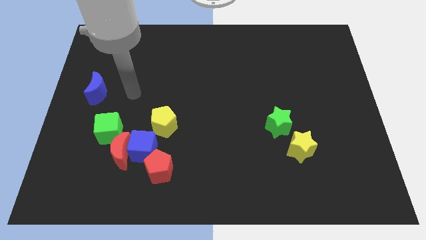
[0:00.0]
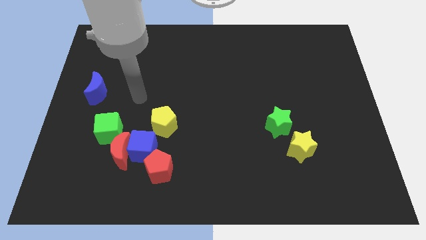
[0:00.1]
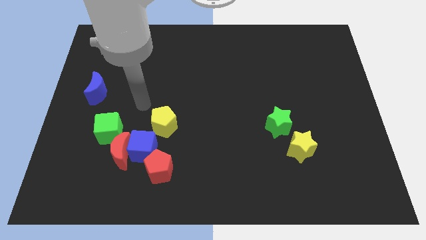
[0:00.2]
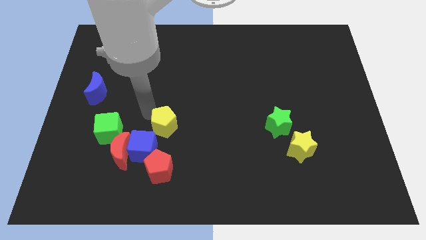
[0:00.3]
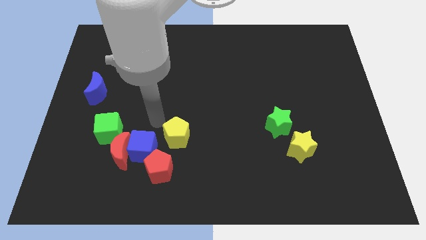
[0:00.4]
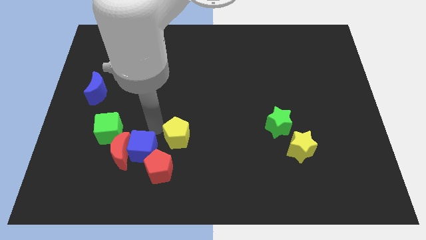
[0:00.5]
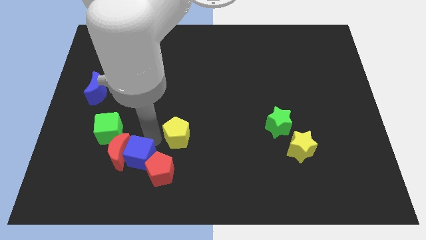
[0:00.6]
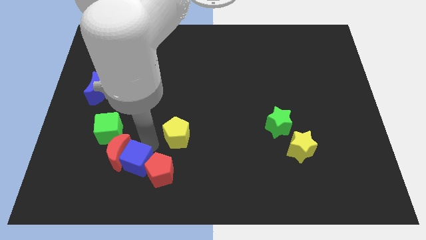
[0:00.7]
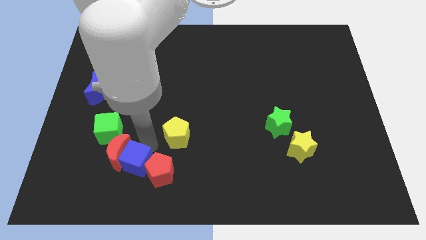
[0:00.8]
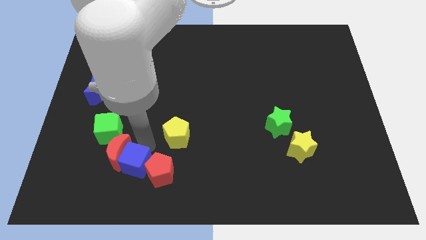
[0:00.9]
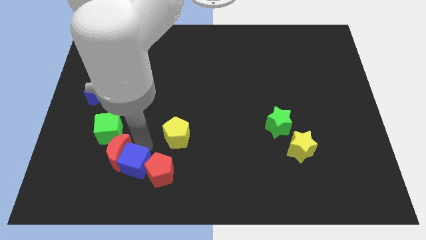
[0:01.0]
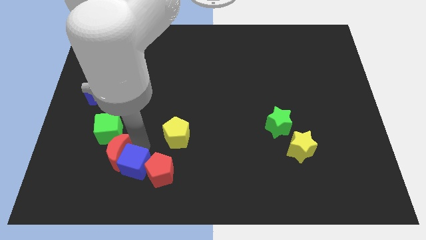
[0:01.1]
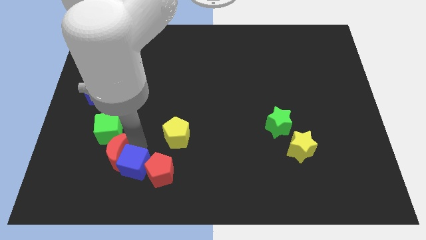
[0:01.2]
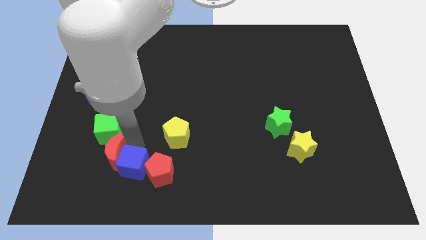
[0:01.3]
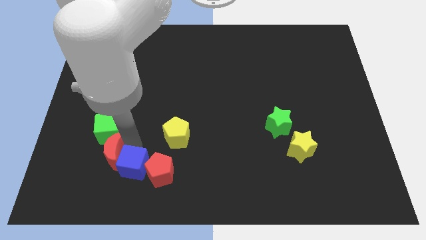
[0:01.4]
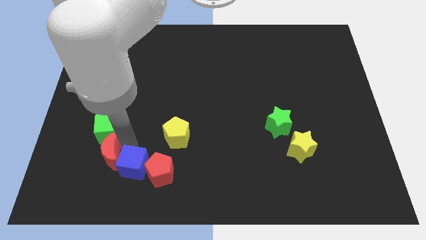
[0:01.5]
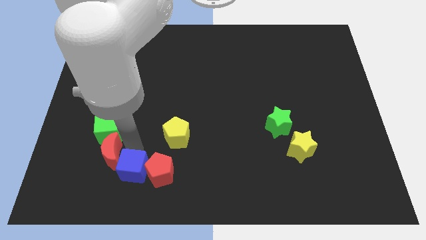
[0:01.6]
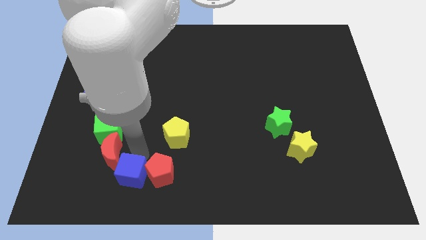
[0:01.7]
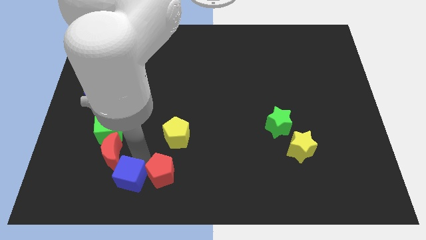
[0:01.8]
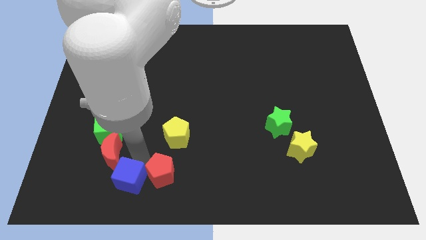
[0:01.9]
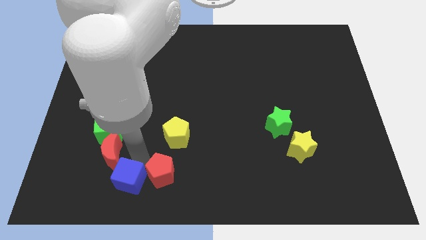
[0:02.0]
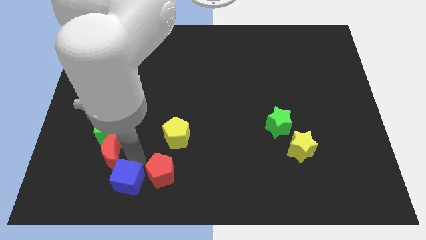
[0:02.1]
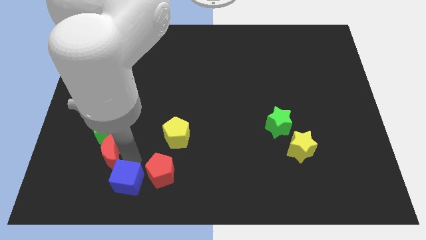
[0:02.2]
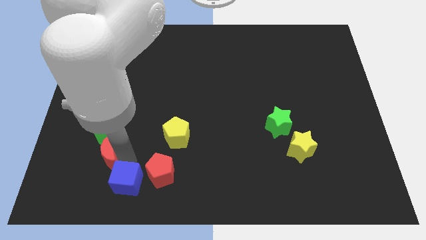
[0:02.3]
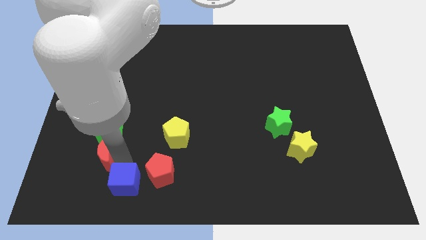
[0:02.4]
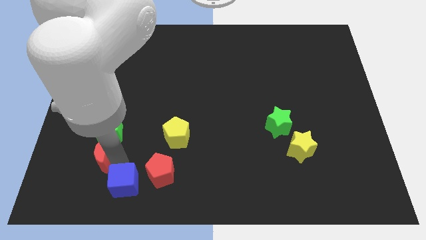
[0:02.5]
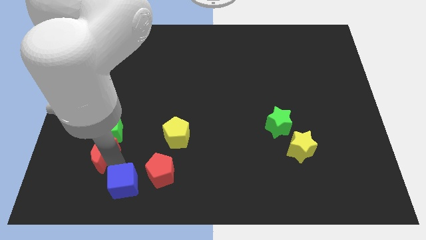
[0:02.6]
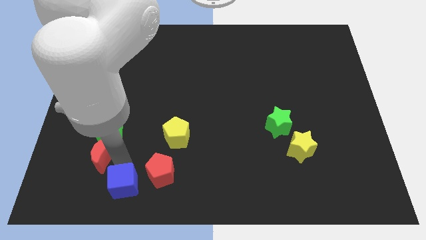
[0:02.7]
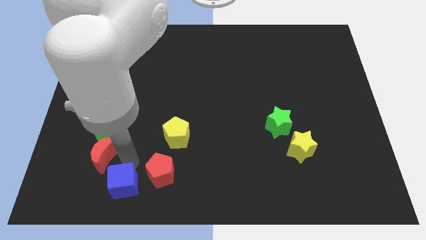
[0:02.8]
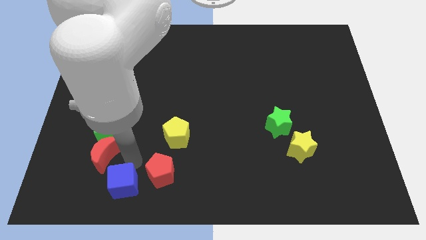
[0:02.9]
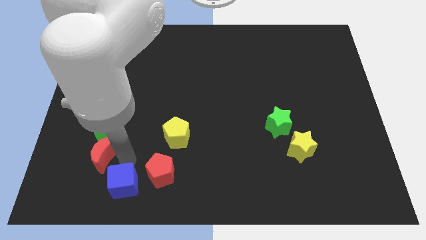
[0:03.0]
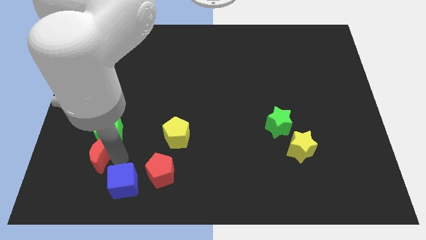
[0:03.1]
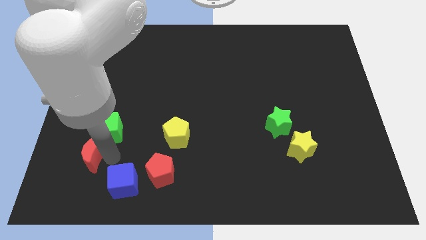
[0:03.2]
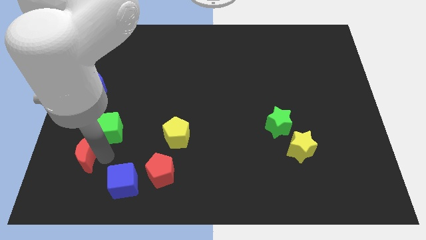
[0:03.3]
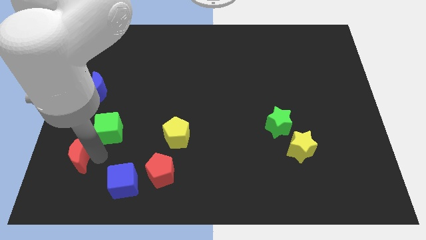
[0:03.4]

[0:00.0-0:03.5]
separate the red moon from the group

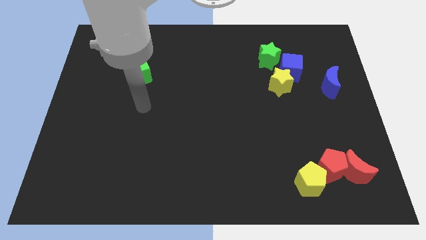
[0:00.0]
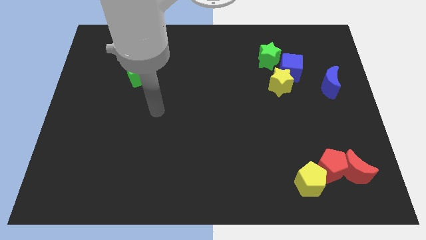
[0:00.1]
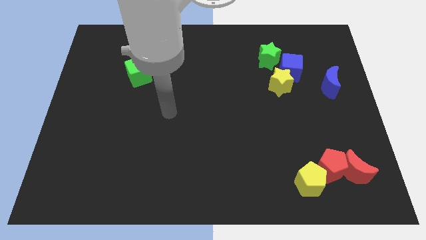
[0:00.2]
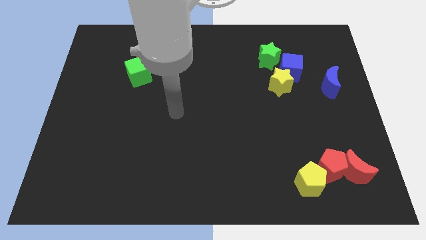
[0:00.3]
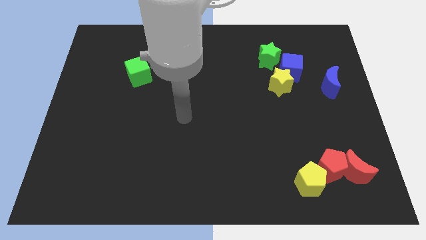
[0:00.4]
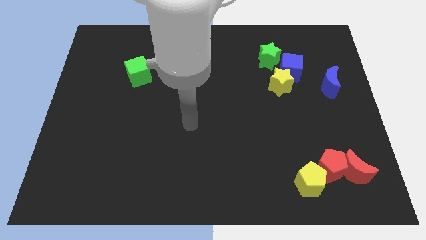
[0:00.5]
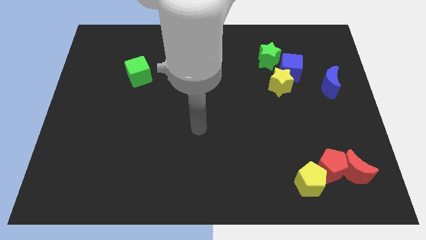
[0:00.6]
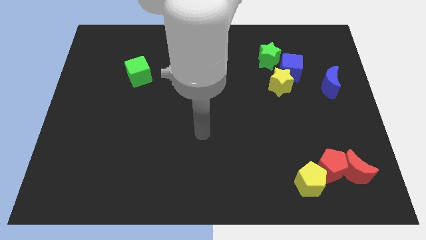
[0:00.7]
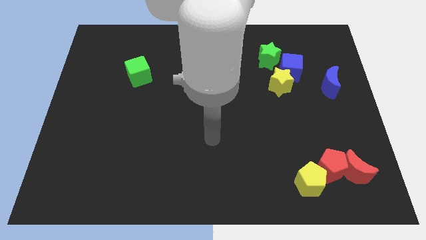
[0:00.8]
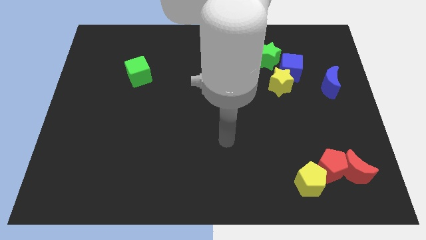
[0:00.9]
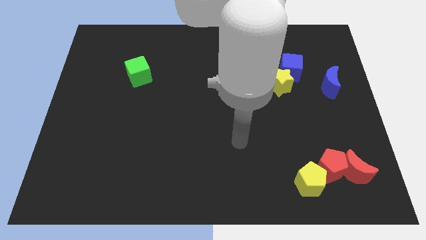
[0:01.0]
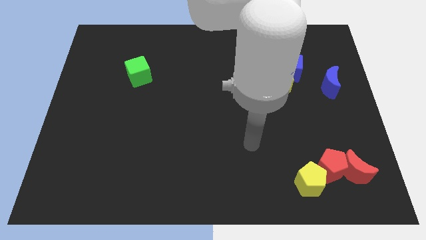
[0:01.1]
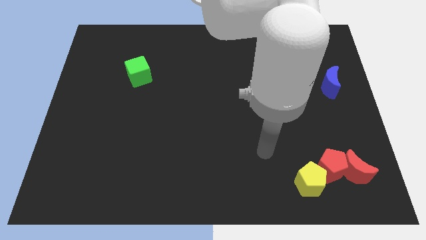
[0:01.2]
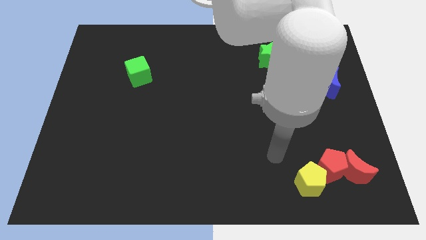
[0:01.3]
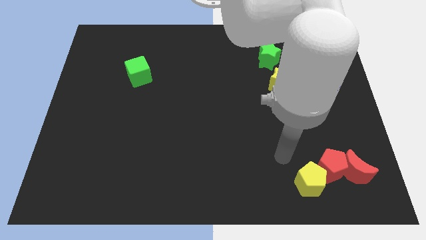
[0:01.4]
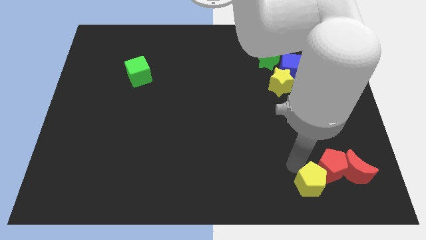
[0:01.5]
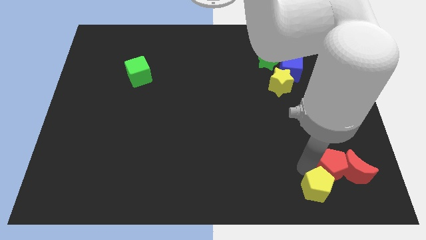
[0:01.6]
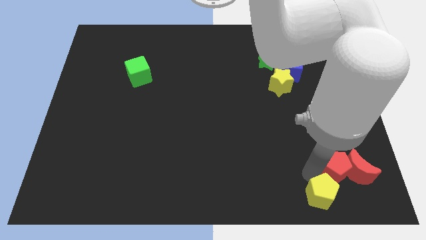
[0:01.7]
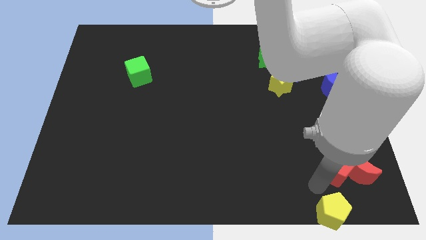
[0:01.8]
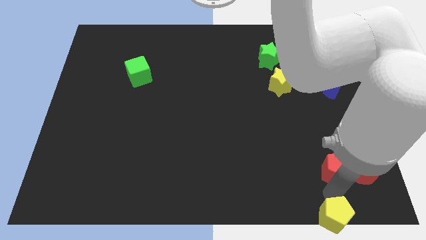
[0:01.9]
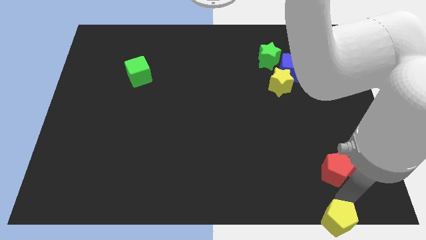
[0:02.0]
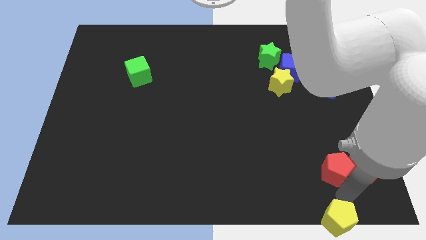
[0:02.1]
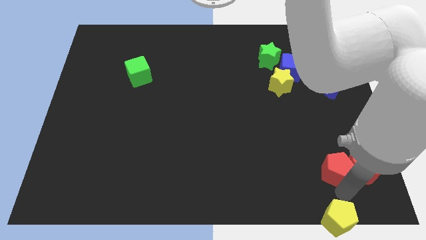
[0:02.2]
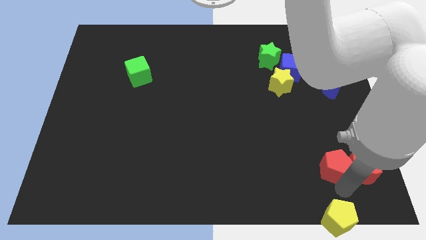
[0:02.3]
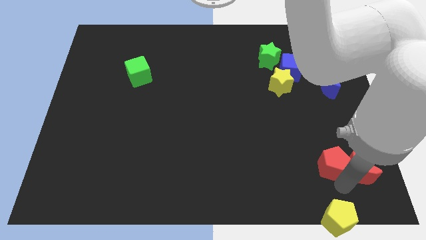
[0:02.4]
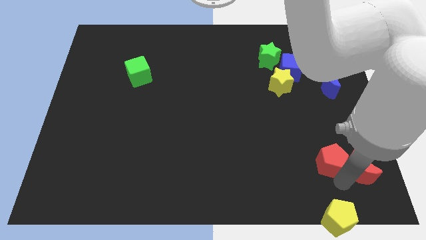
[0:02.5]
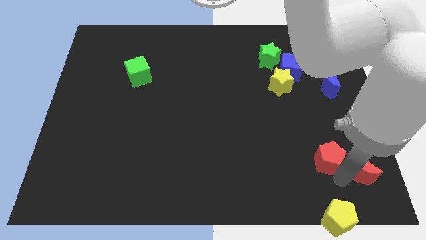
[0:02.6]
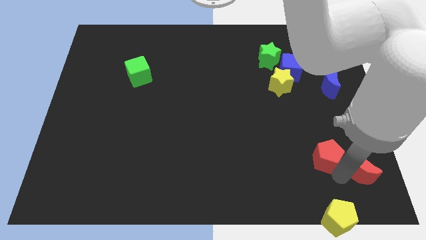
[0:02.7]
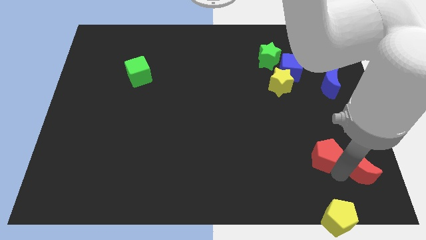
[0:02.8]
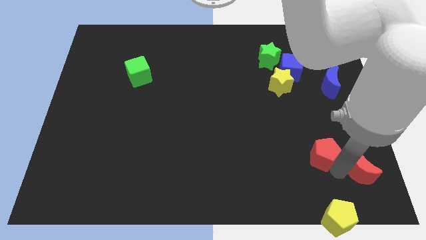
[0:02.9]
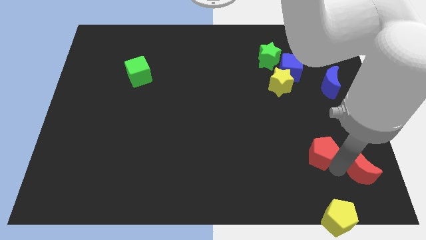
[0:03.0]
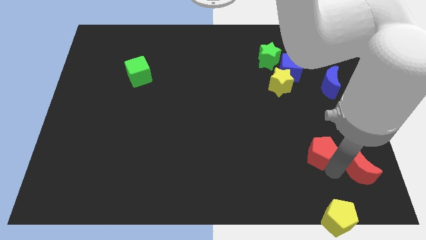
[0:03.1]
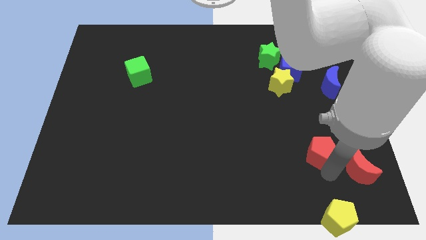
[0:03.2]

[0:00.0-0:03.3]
separate the red pentagon from the red moon and yellow pentagon

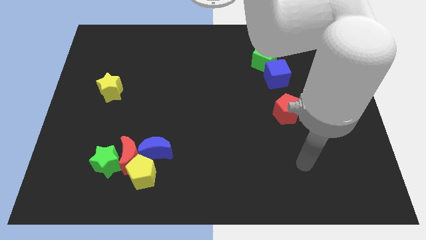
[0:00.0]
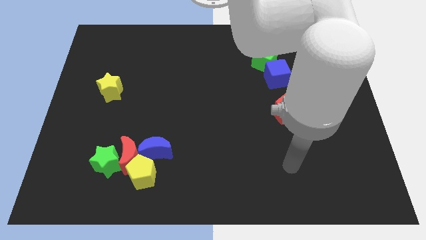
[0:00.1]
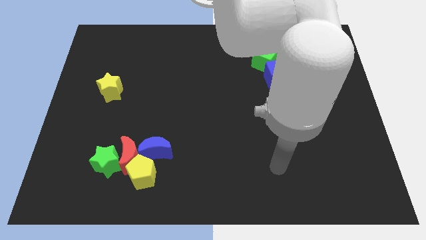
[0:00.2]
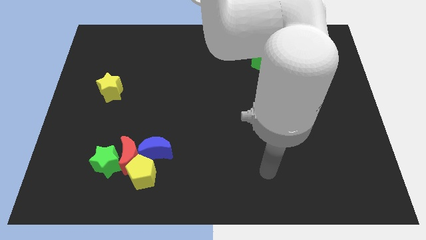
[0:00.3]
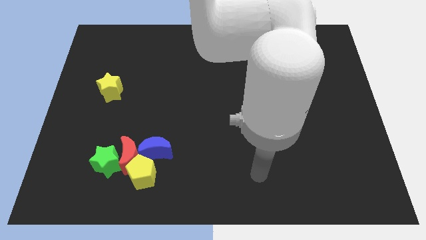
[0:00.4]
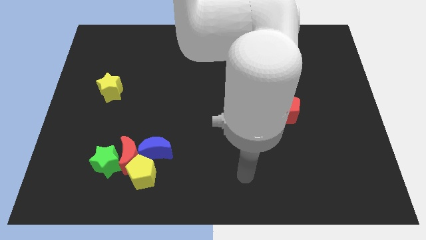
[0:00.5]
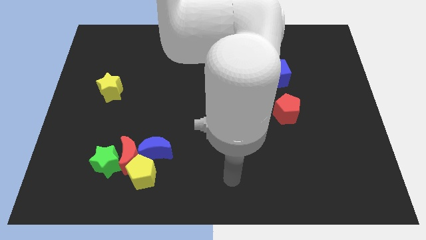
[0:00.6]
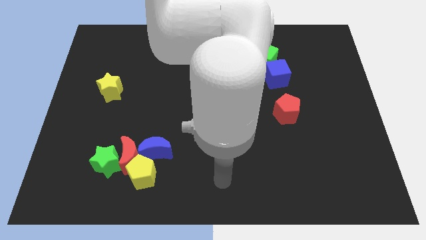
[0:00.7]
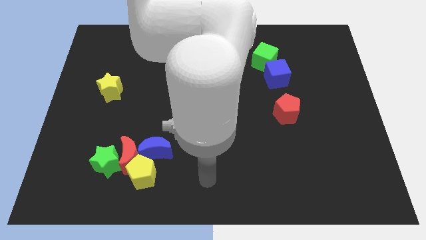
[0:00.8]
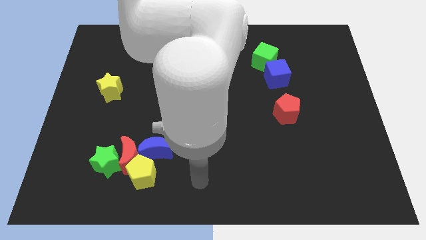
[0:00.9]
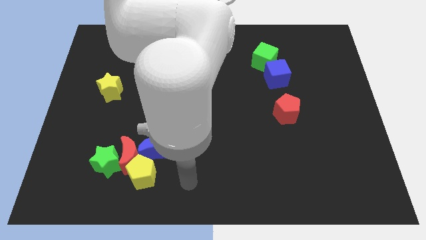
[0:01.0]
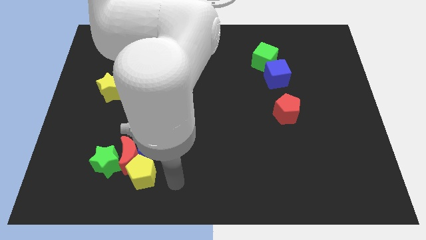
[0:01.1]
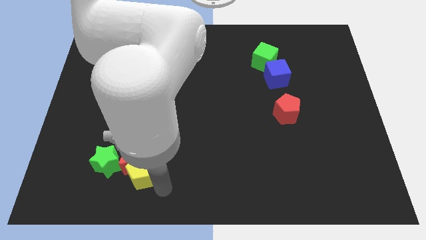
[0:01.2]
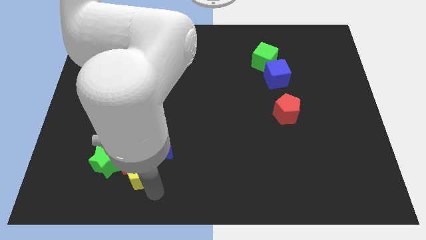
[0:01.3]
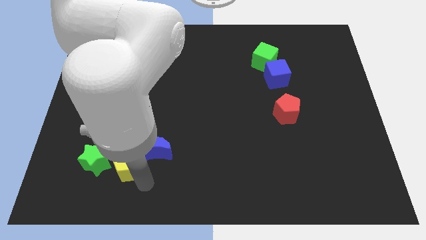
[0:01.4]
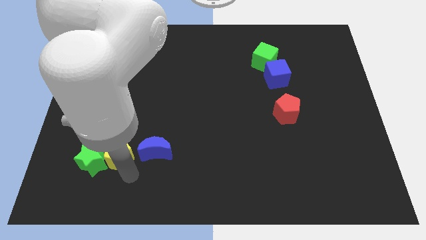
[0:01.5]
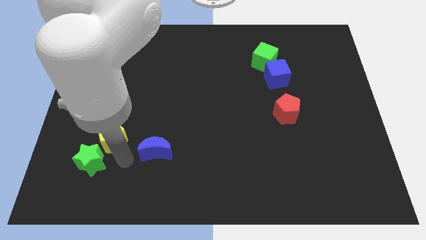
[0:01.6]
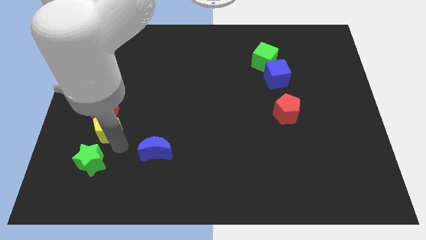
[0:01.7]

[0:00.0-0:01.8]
move the red moon away from the green star, yellow pentagon, and blue moon

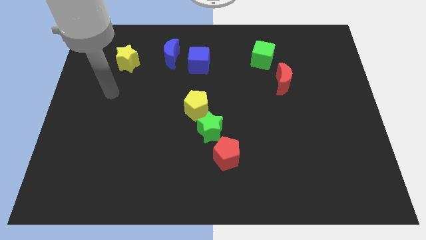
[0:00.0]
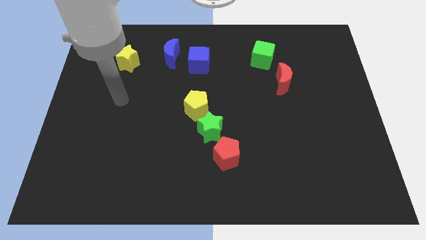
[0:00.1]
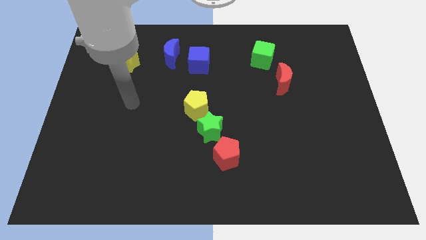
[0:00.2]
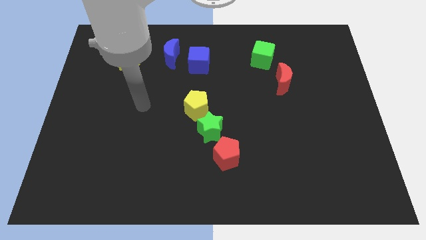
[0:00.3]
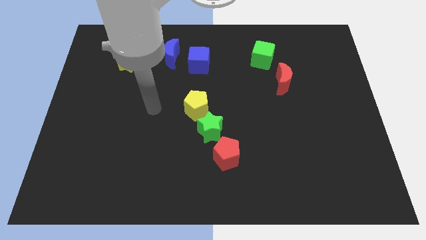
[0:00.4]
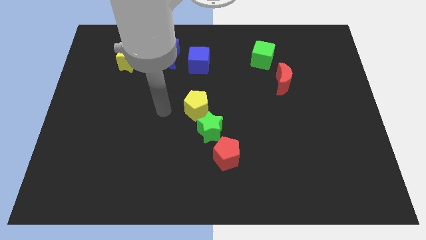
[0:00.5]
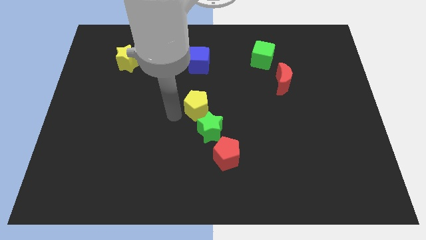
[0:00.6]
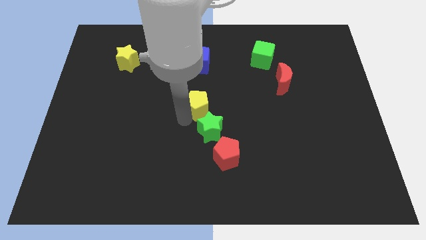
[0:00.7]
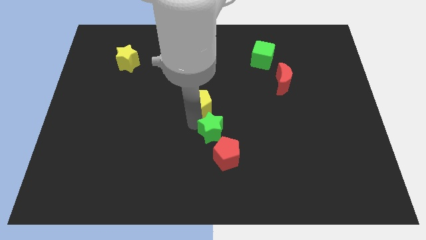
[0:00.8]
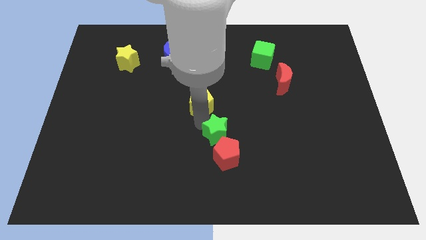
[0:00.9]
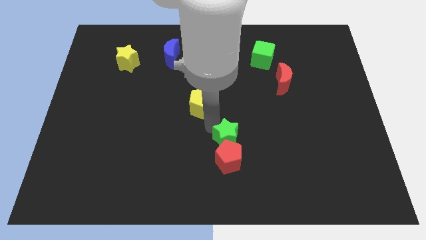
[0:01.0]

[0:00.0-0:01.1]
separate the yellow pentagon from the green star
